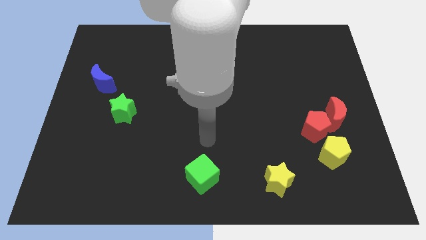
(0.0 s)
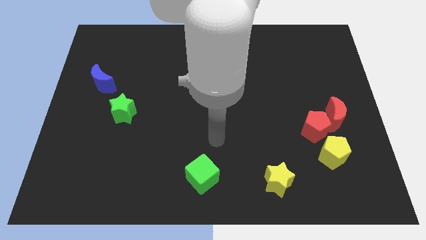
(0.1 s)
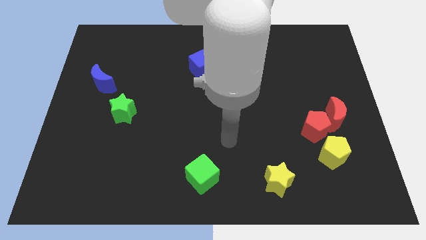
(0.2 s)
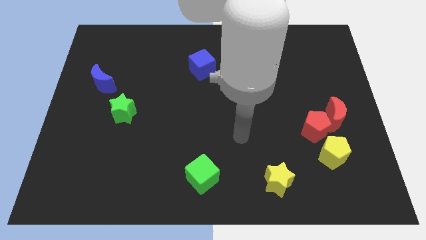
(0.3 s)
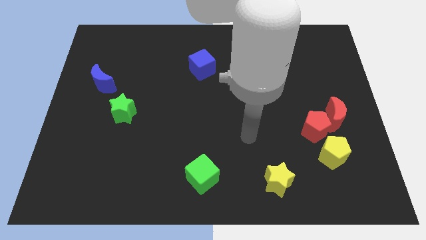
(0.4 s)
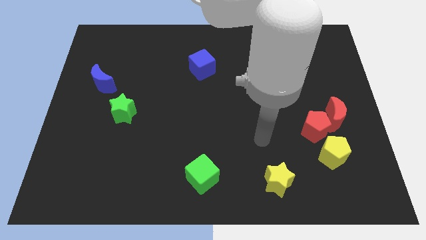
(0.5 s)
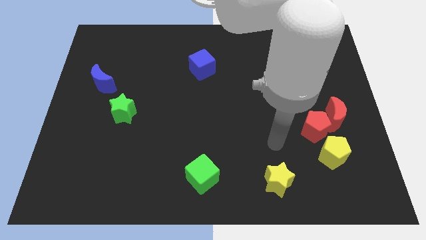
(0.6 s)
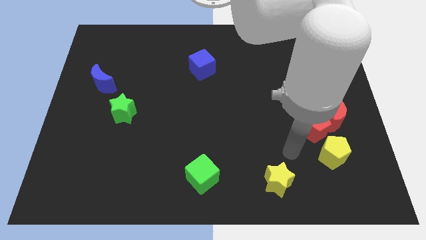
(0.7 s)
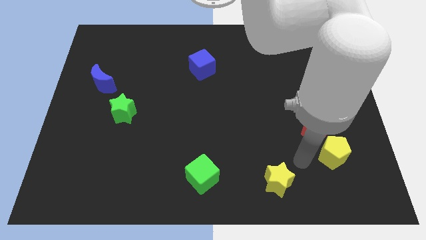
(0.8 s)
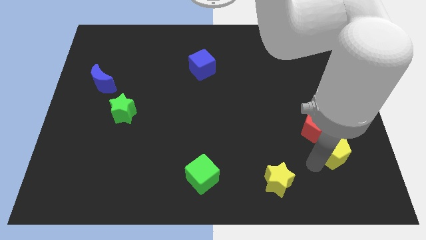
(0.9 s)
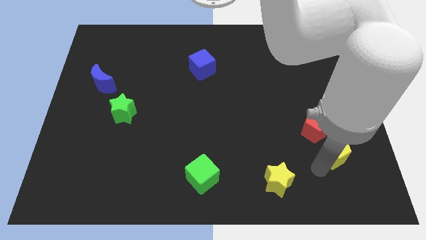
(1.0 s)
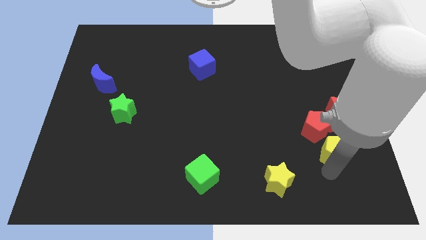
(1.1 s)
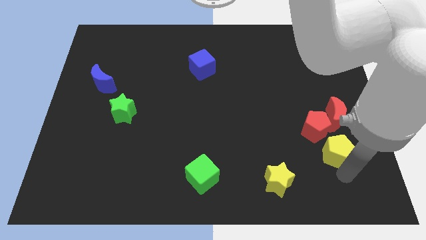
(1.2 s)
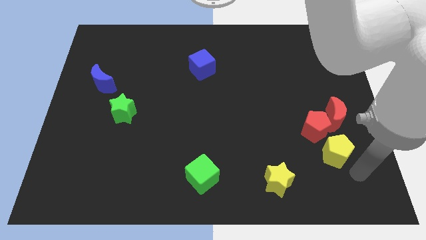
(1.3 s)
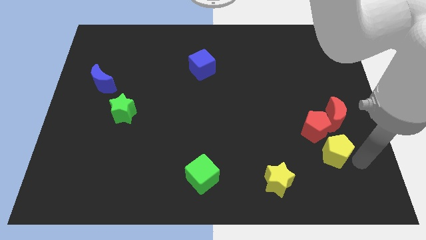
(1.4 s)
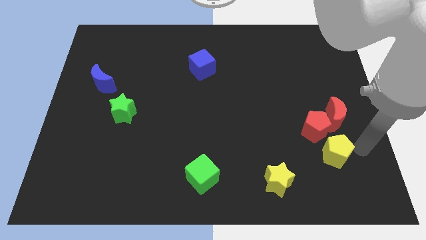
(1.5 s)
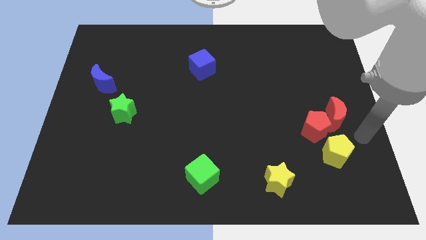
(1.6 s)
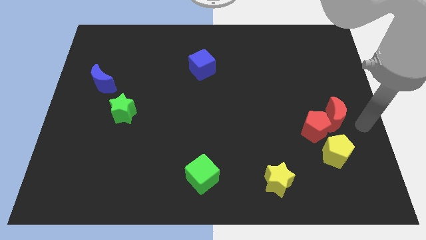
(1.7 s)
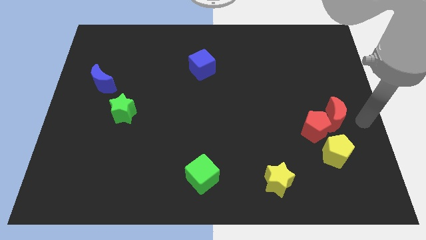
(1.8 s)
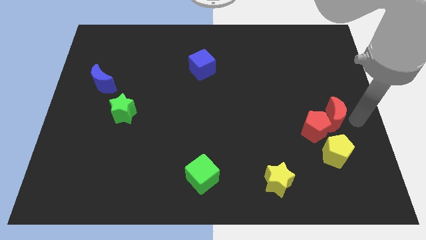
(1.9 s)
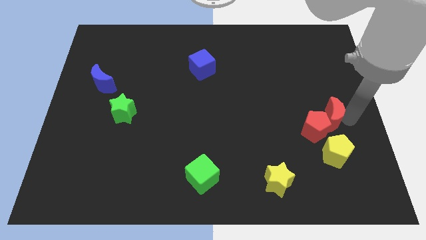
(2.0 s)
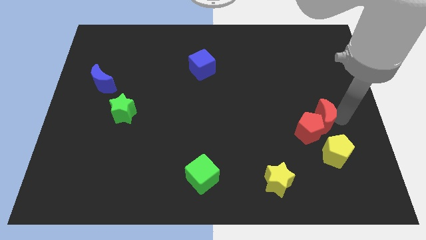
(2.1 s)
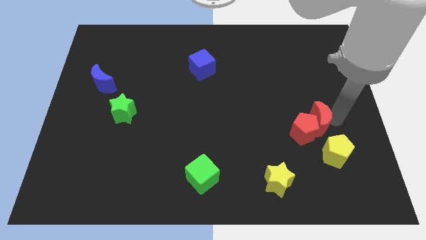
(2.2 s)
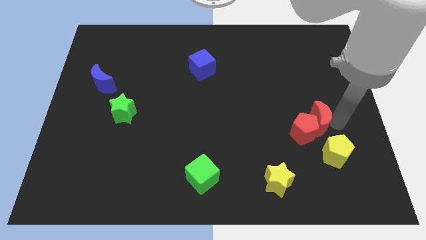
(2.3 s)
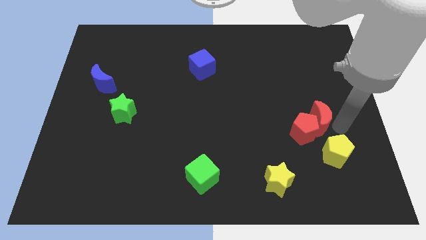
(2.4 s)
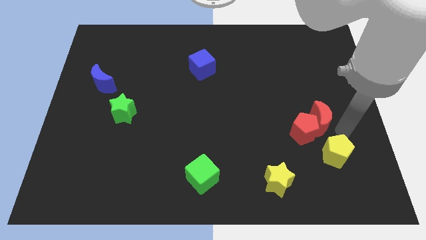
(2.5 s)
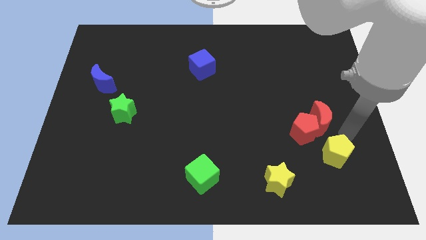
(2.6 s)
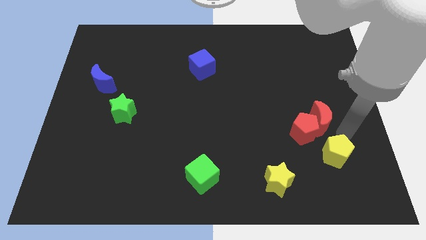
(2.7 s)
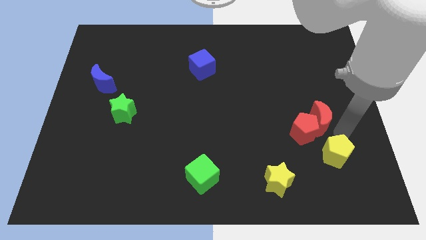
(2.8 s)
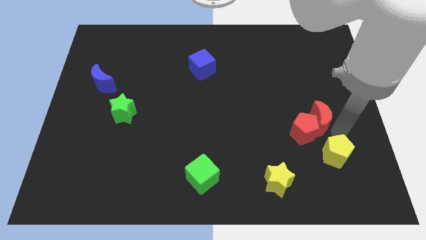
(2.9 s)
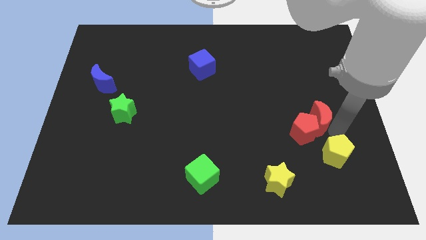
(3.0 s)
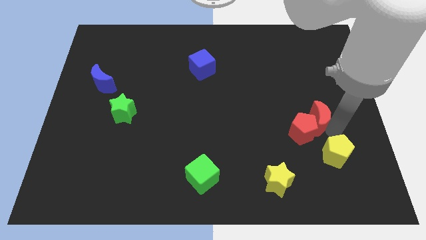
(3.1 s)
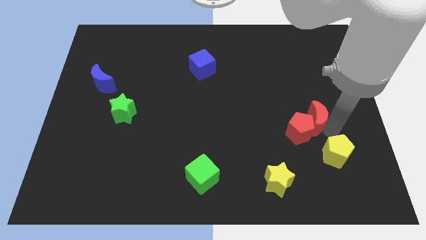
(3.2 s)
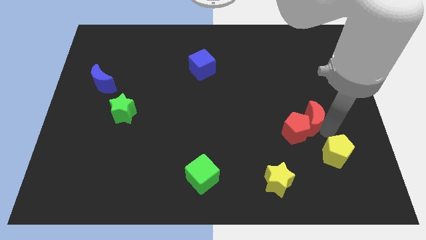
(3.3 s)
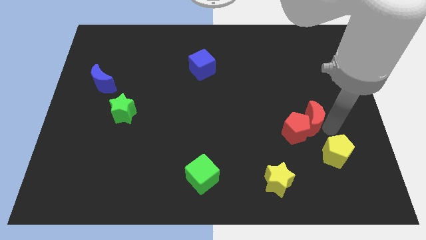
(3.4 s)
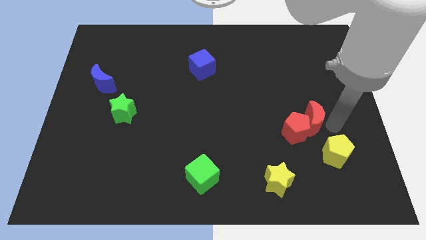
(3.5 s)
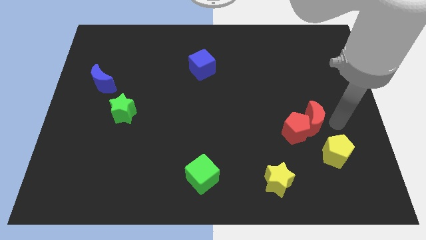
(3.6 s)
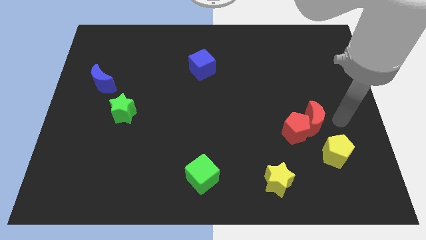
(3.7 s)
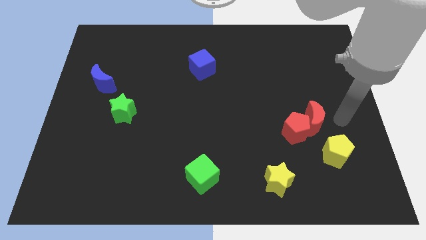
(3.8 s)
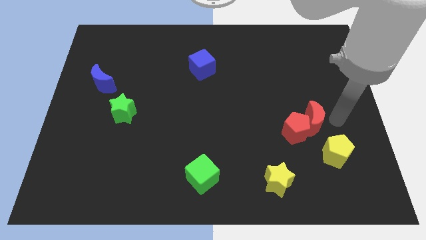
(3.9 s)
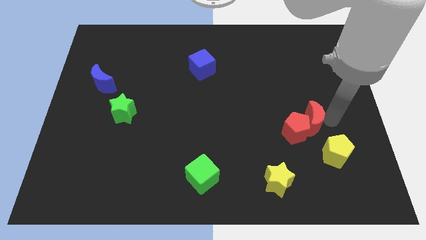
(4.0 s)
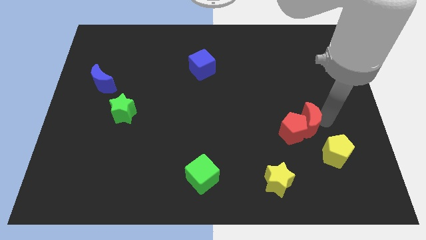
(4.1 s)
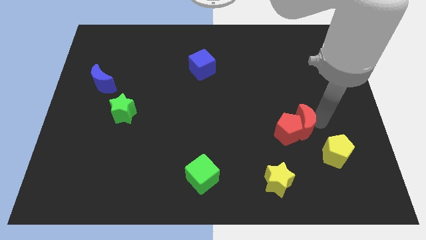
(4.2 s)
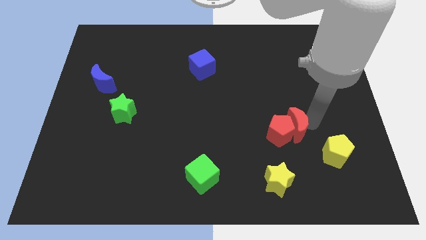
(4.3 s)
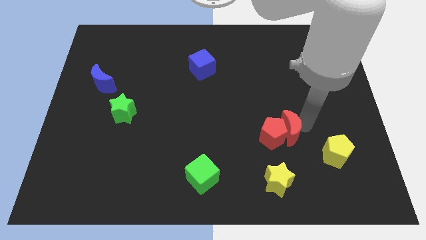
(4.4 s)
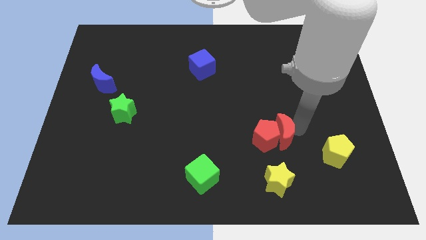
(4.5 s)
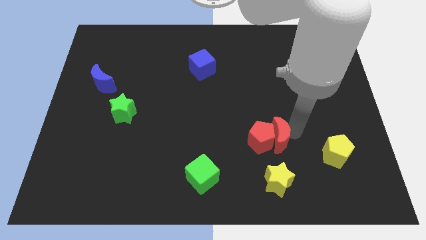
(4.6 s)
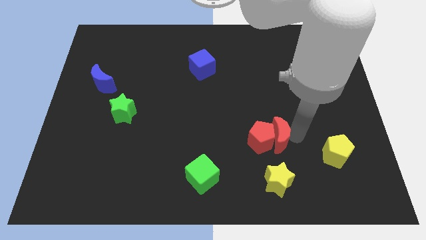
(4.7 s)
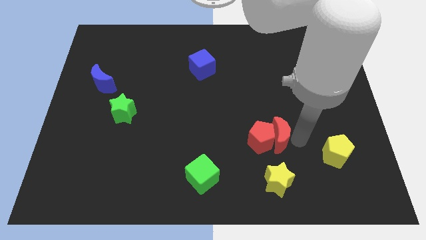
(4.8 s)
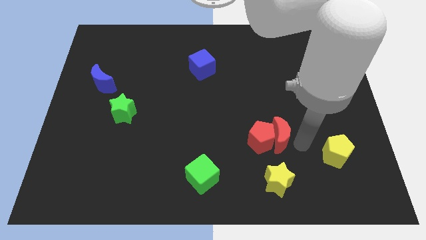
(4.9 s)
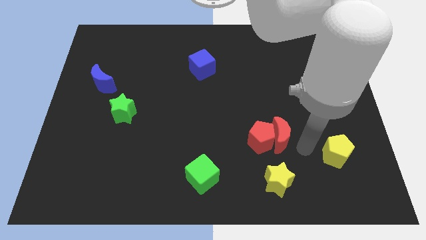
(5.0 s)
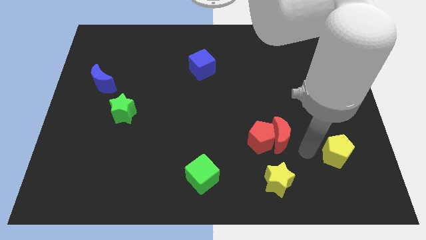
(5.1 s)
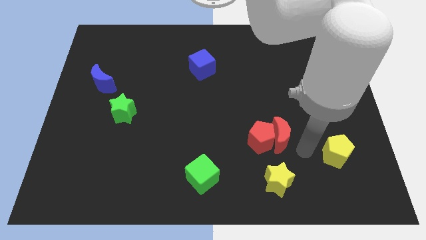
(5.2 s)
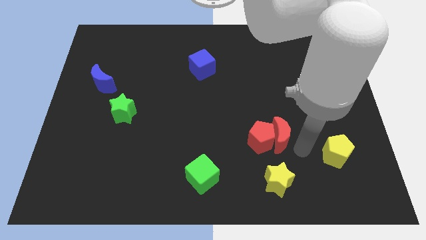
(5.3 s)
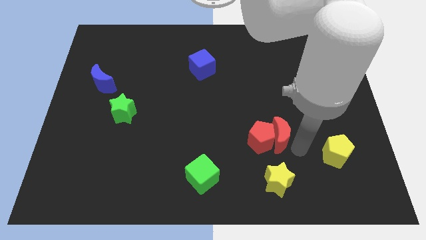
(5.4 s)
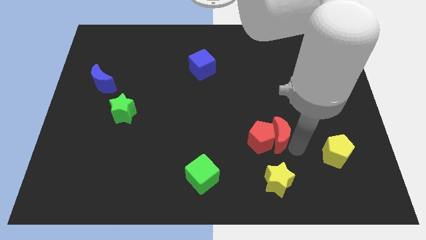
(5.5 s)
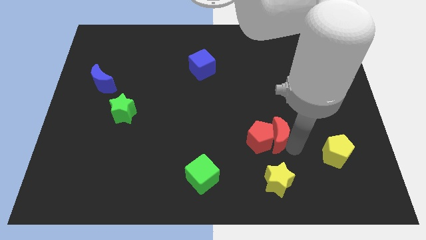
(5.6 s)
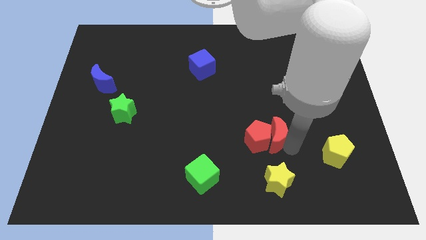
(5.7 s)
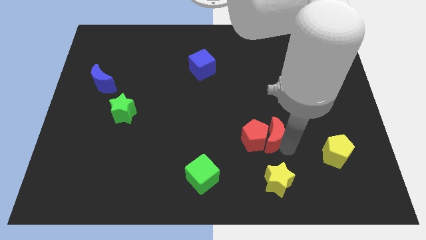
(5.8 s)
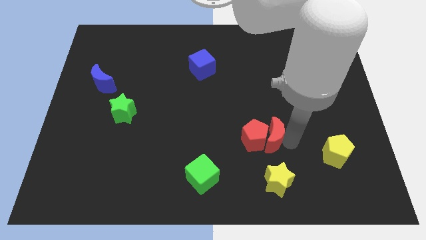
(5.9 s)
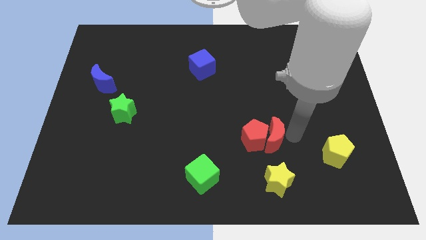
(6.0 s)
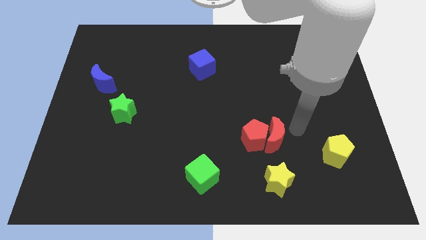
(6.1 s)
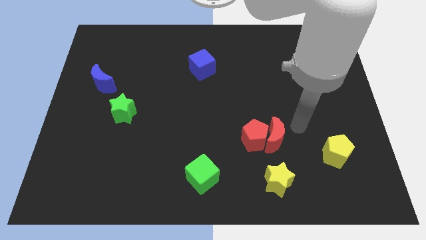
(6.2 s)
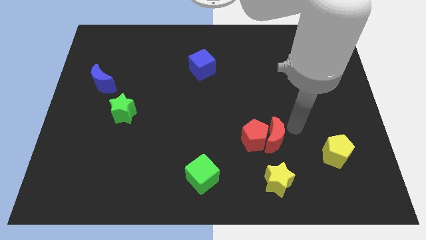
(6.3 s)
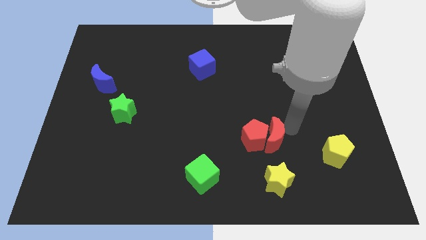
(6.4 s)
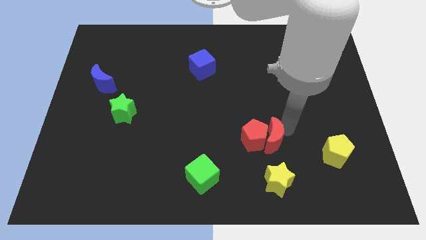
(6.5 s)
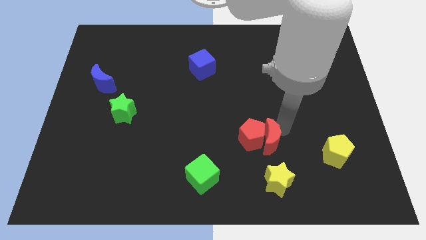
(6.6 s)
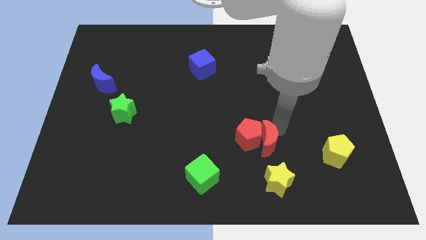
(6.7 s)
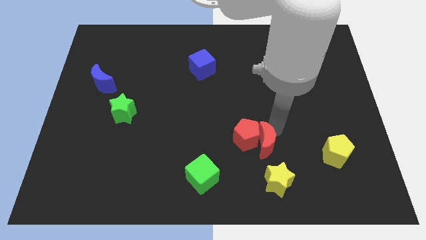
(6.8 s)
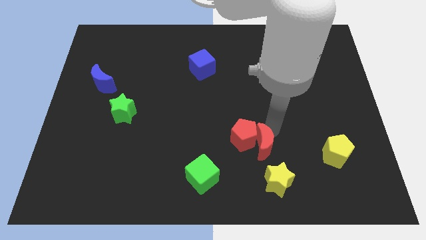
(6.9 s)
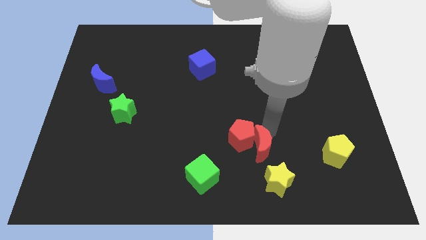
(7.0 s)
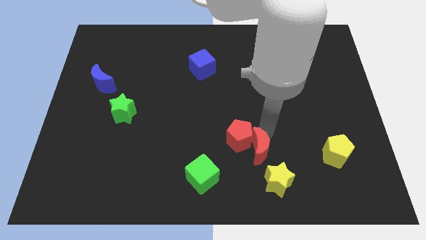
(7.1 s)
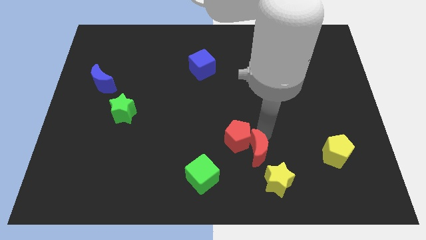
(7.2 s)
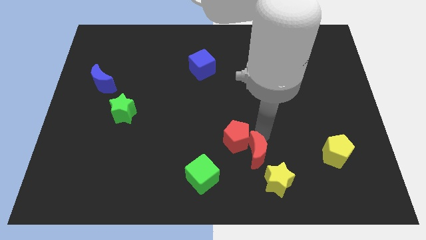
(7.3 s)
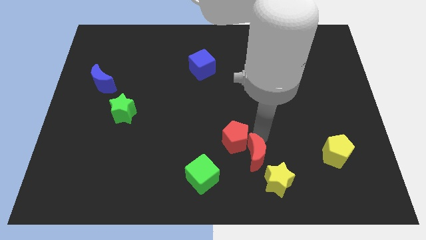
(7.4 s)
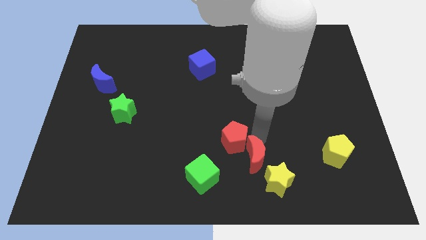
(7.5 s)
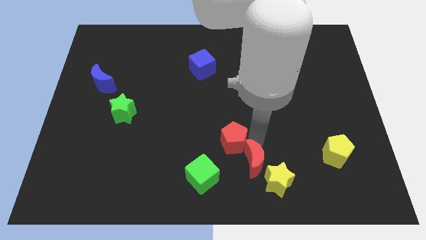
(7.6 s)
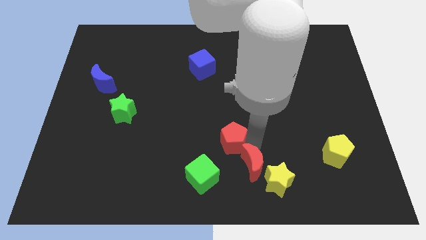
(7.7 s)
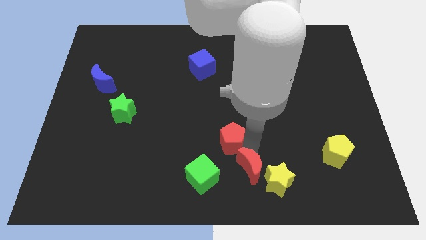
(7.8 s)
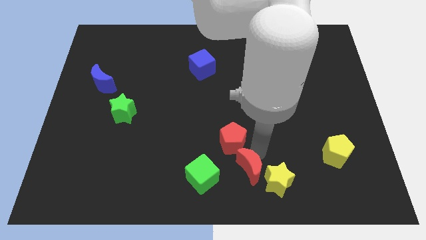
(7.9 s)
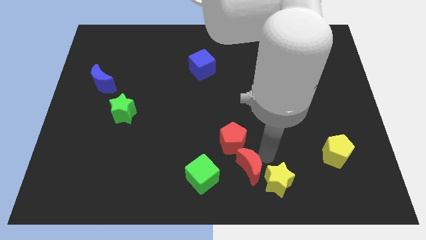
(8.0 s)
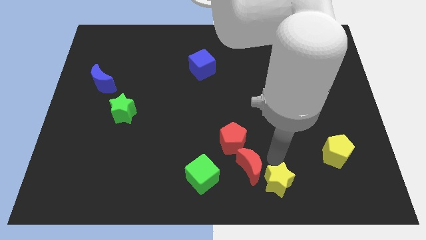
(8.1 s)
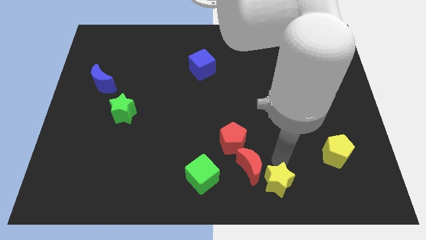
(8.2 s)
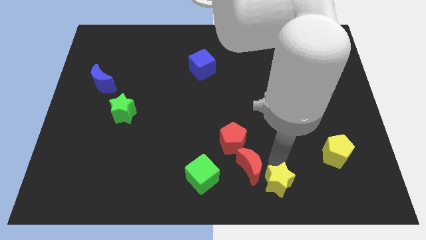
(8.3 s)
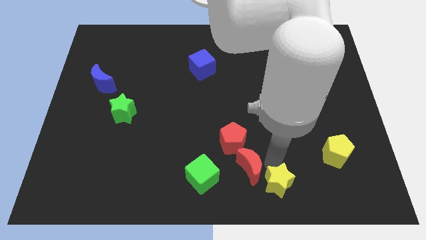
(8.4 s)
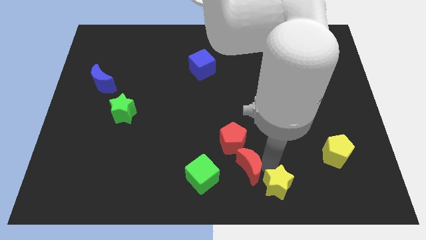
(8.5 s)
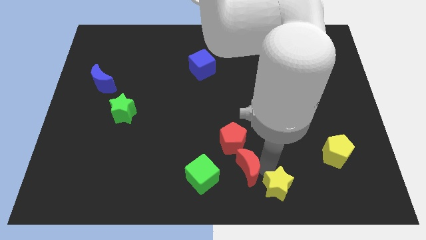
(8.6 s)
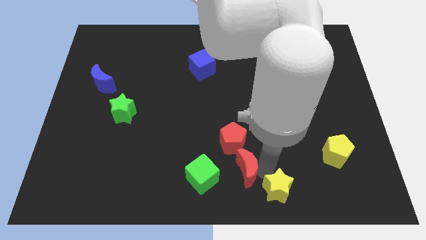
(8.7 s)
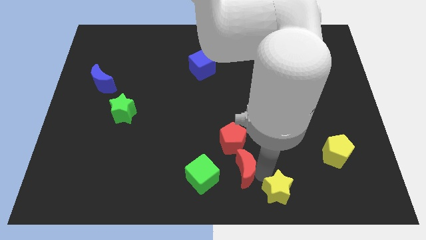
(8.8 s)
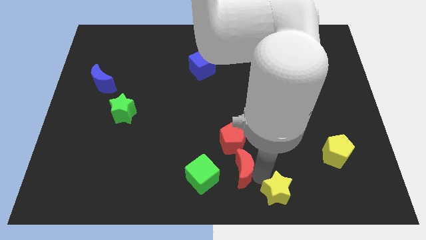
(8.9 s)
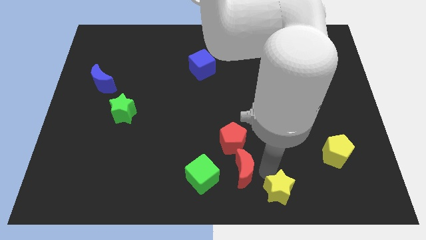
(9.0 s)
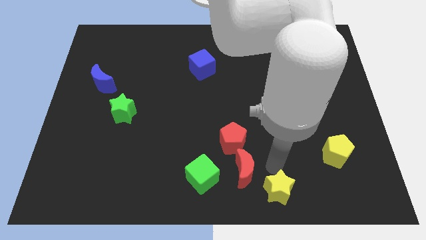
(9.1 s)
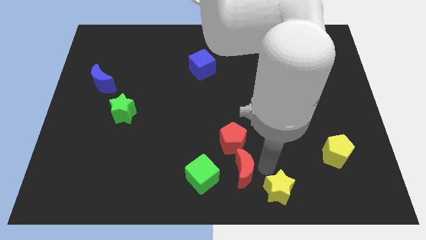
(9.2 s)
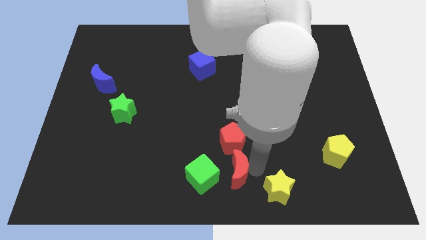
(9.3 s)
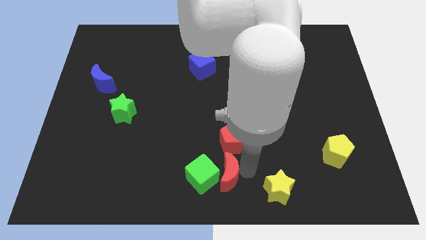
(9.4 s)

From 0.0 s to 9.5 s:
slide the red moon towards the green cube
